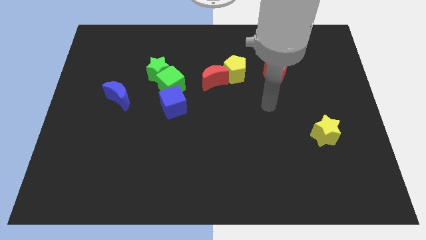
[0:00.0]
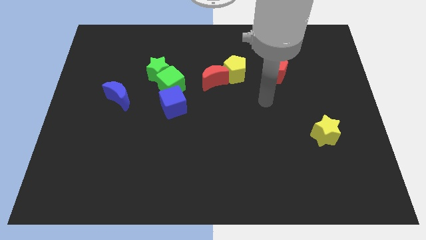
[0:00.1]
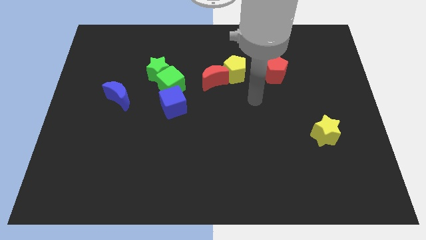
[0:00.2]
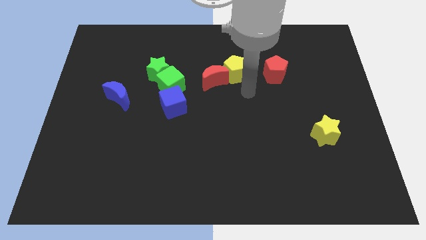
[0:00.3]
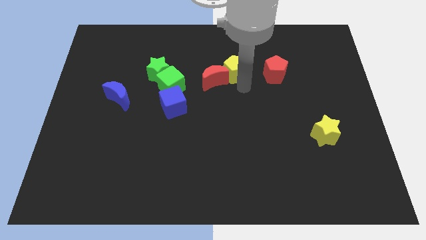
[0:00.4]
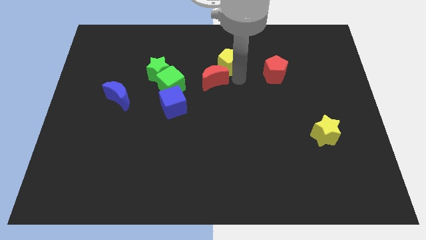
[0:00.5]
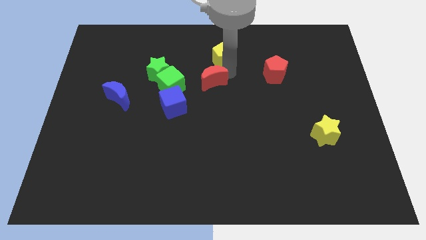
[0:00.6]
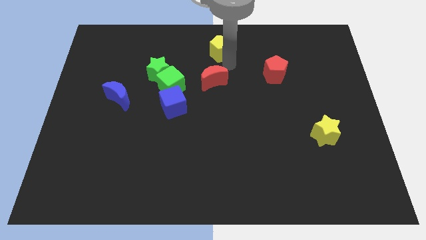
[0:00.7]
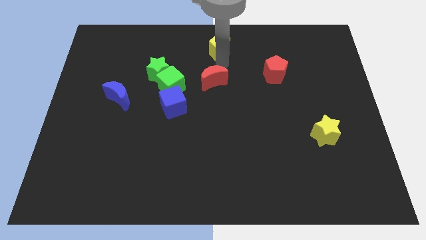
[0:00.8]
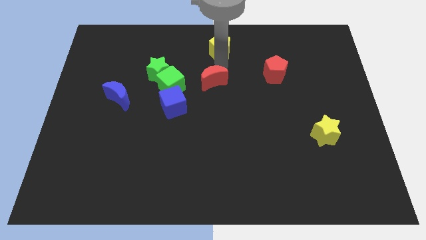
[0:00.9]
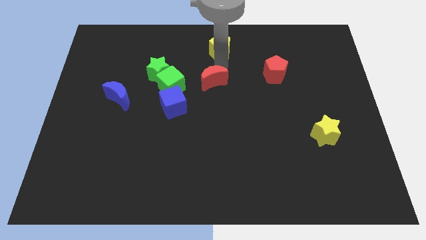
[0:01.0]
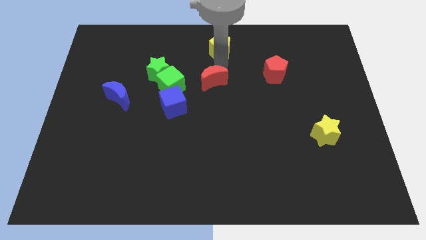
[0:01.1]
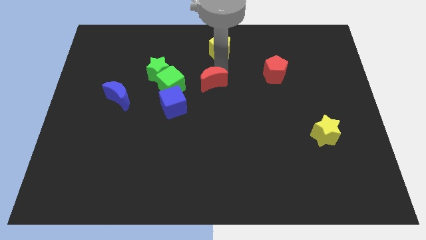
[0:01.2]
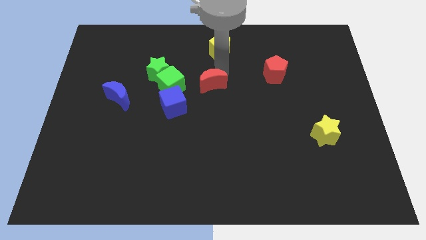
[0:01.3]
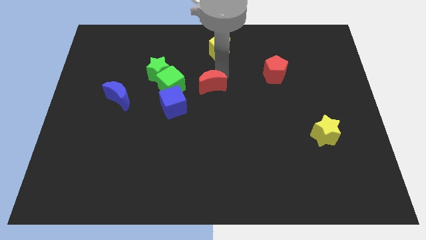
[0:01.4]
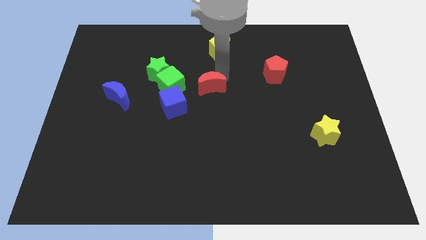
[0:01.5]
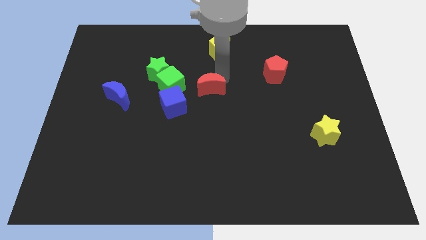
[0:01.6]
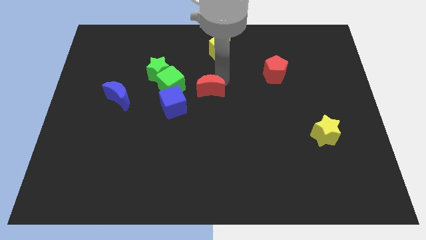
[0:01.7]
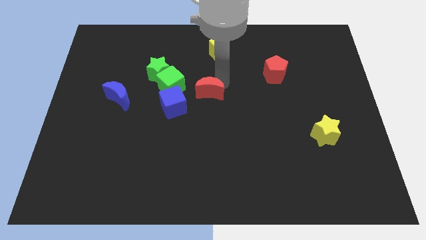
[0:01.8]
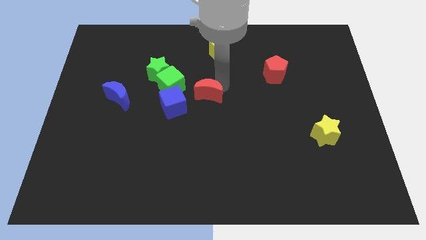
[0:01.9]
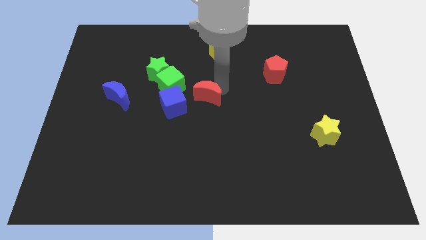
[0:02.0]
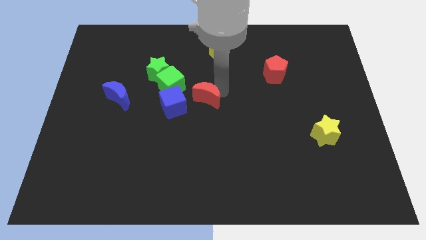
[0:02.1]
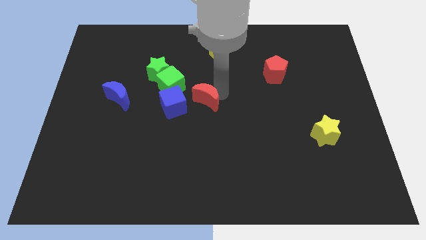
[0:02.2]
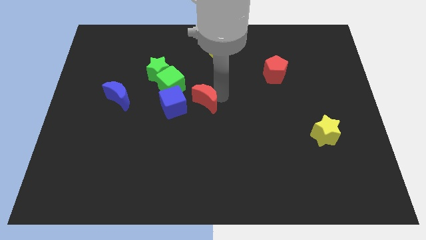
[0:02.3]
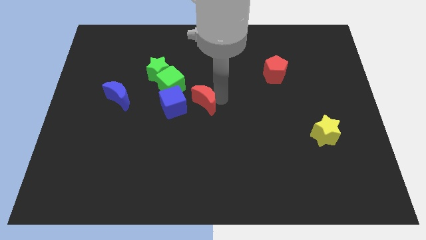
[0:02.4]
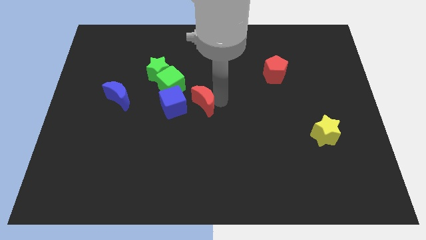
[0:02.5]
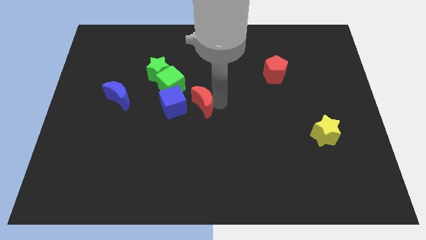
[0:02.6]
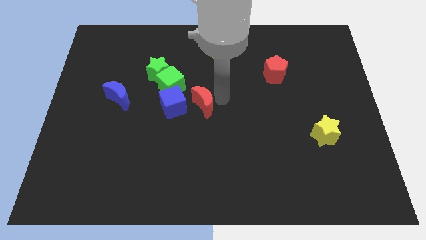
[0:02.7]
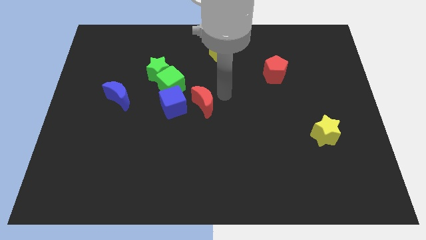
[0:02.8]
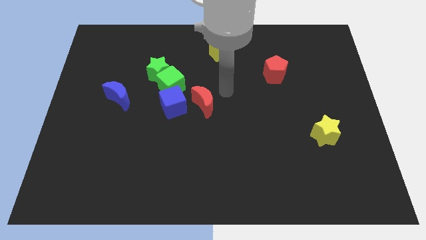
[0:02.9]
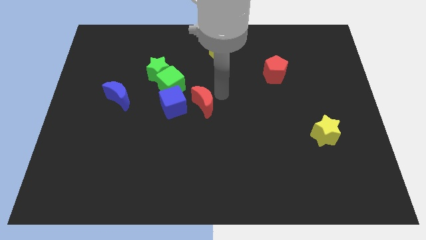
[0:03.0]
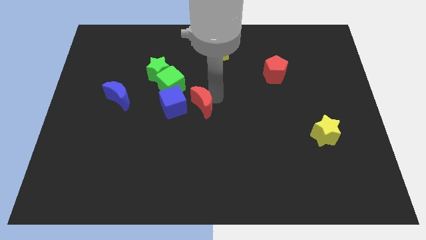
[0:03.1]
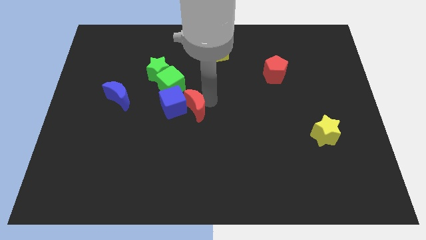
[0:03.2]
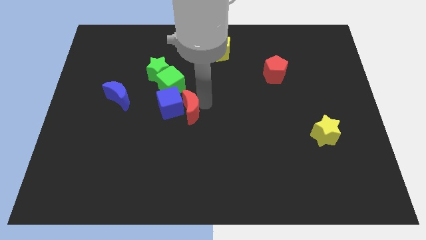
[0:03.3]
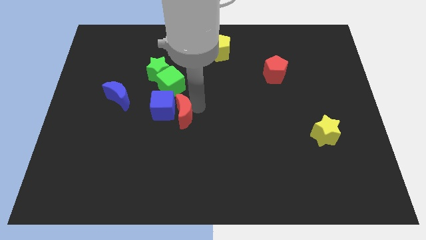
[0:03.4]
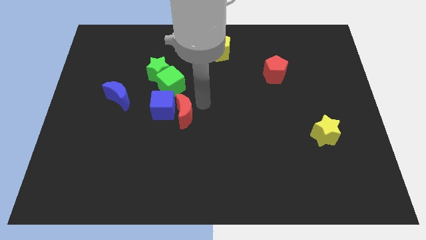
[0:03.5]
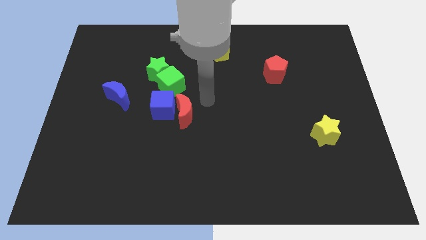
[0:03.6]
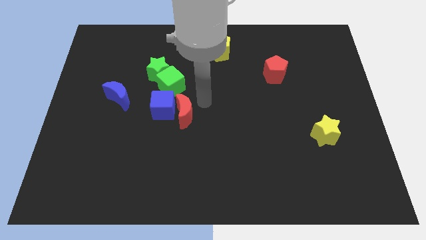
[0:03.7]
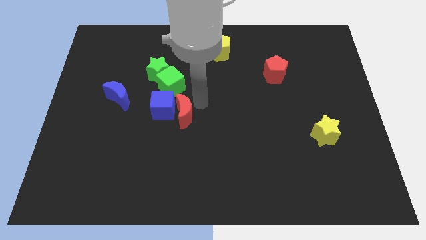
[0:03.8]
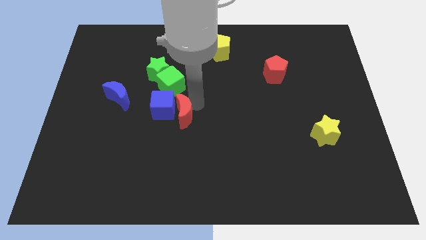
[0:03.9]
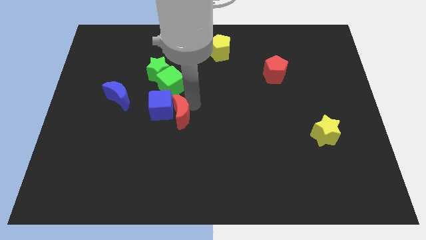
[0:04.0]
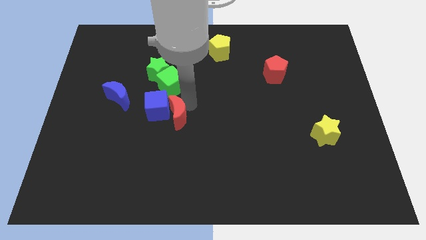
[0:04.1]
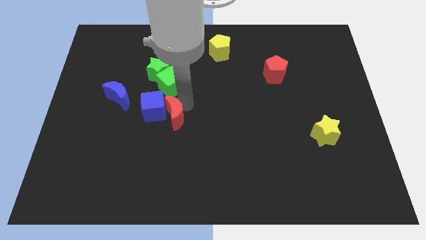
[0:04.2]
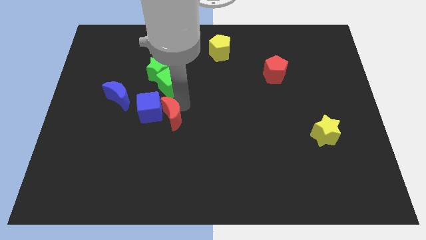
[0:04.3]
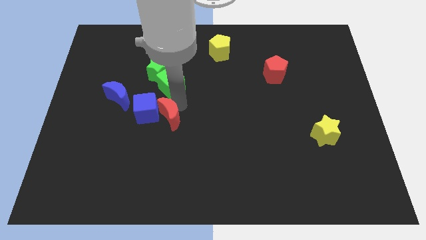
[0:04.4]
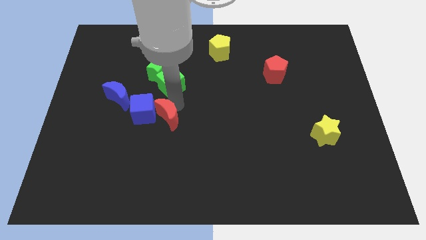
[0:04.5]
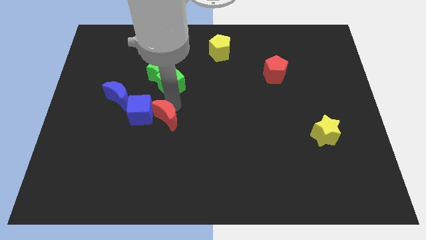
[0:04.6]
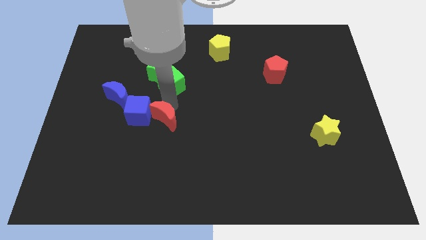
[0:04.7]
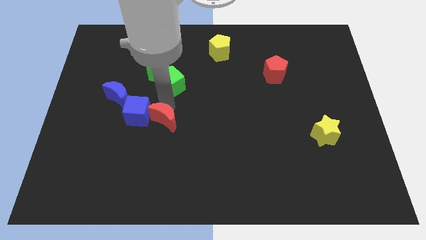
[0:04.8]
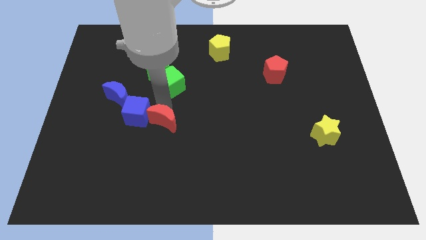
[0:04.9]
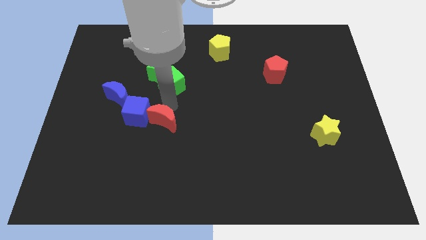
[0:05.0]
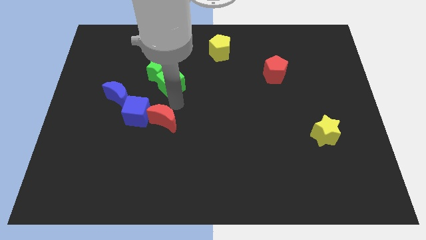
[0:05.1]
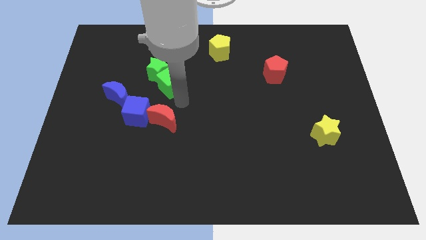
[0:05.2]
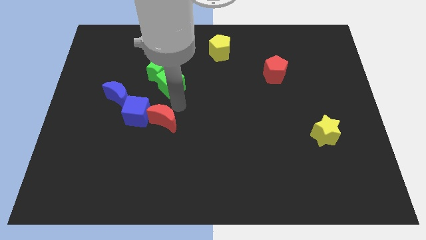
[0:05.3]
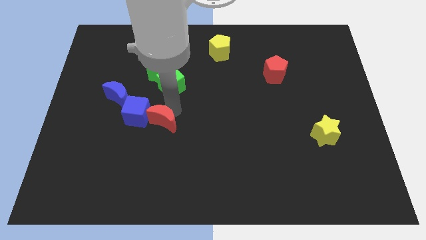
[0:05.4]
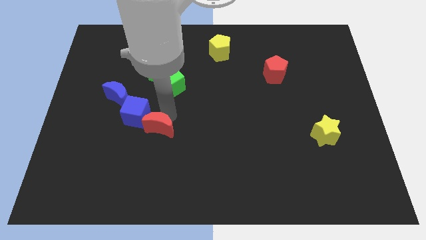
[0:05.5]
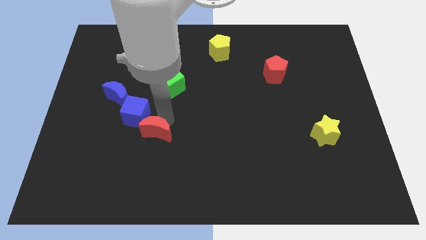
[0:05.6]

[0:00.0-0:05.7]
push the red moon diagonally down and to the left

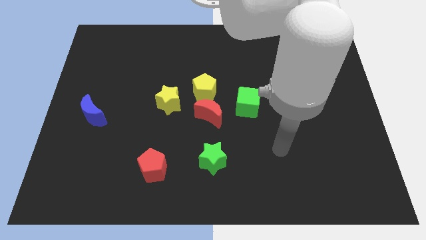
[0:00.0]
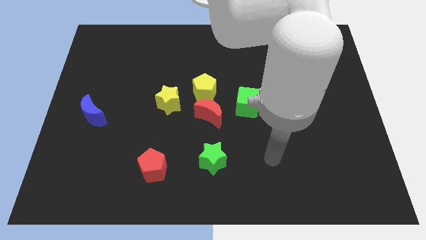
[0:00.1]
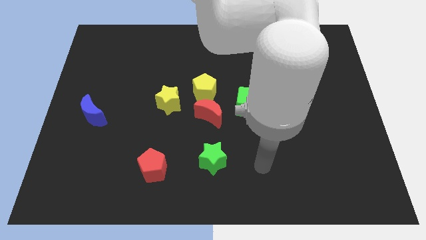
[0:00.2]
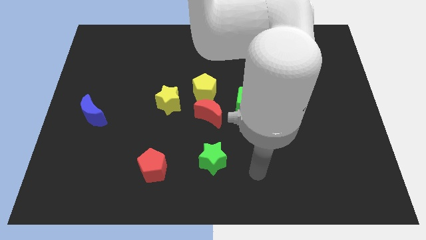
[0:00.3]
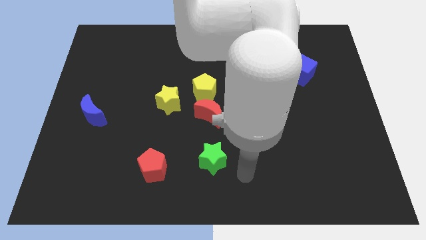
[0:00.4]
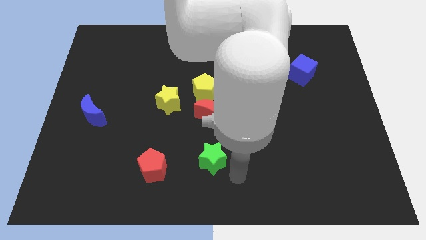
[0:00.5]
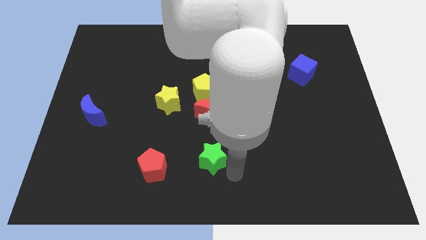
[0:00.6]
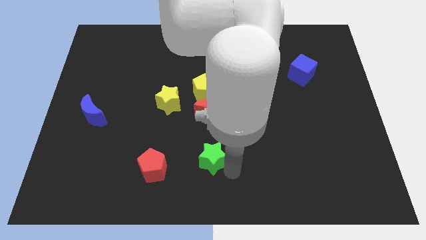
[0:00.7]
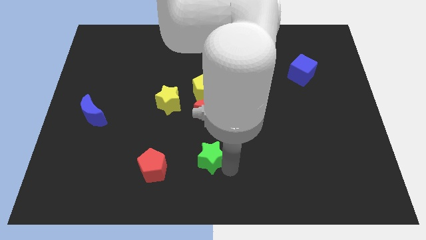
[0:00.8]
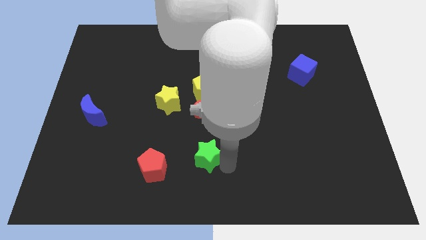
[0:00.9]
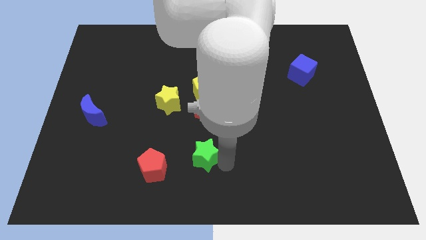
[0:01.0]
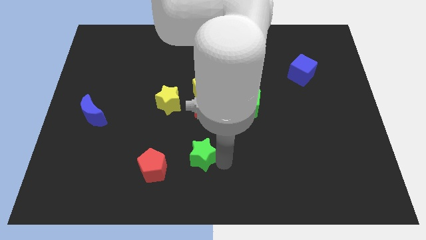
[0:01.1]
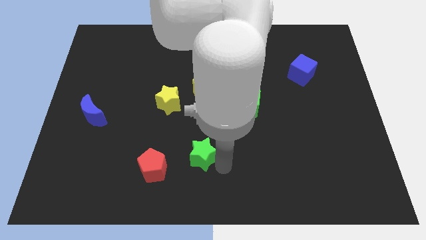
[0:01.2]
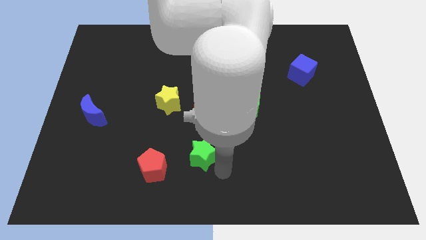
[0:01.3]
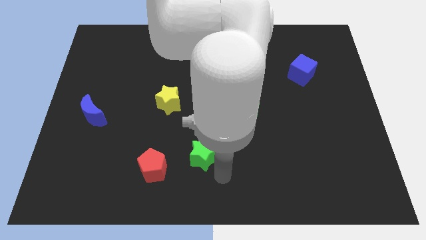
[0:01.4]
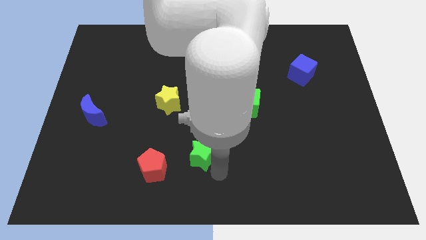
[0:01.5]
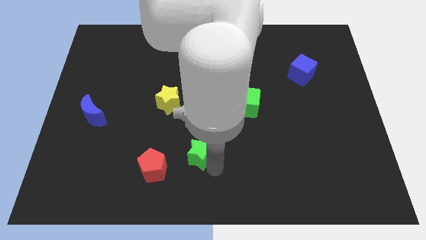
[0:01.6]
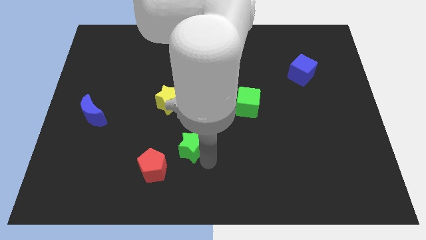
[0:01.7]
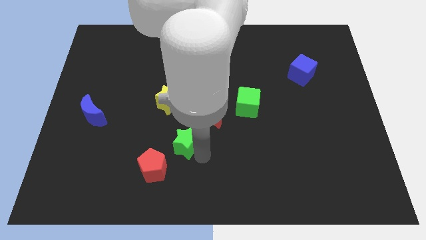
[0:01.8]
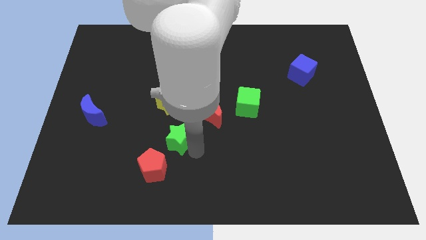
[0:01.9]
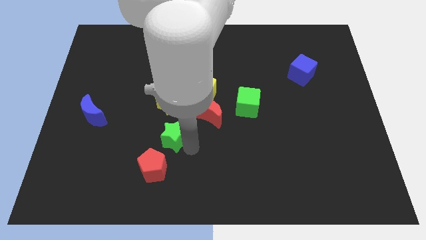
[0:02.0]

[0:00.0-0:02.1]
push the green star left somewhat

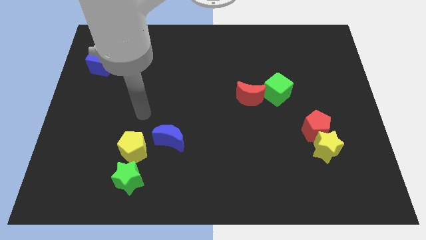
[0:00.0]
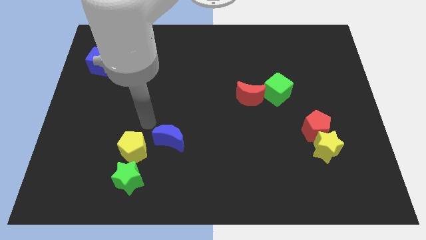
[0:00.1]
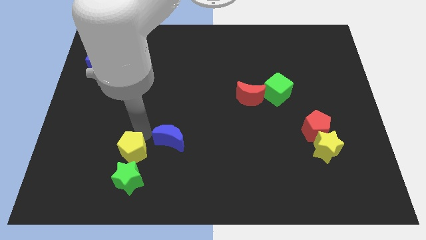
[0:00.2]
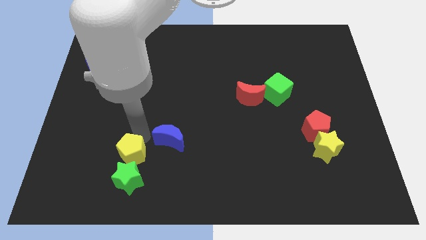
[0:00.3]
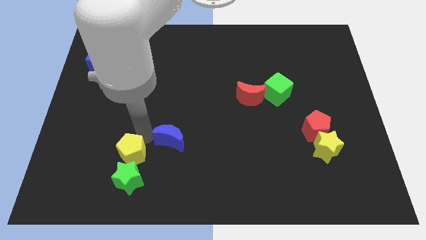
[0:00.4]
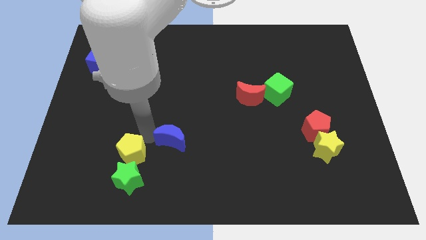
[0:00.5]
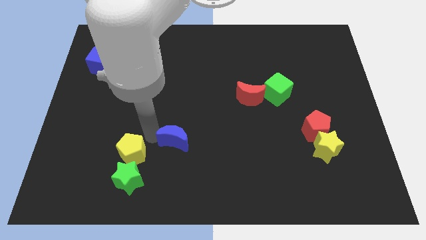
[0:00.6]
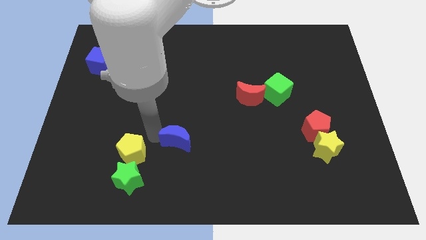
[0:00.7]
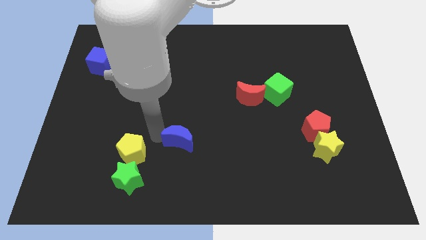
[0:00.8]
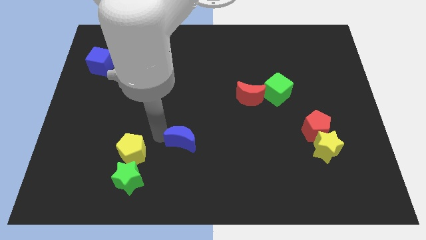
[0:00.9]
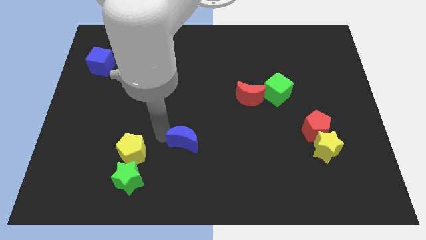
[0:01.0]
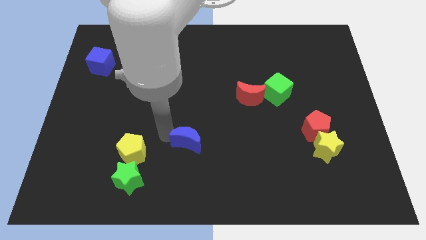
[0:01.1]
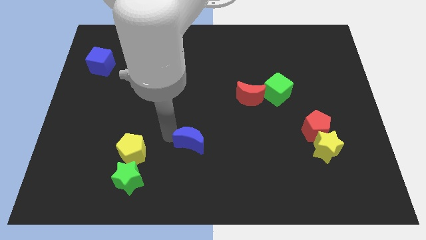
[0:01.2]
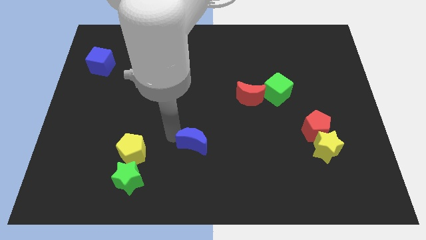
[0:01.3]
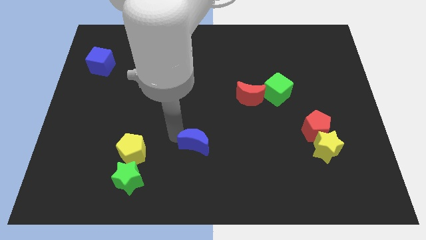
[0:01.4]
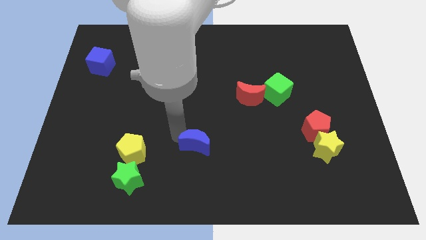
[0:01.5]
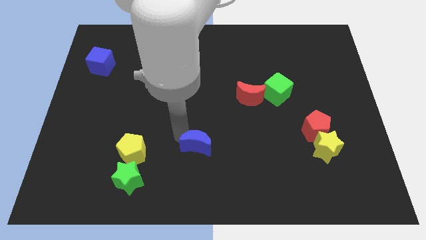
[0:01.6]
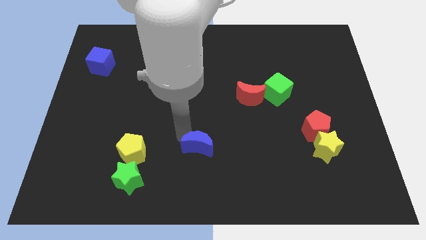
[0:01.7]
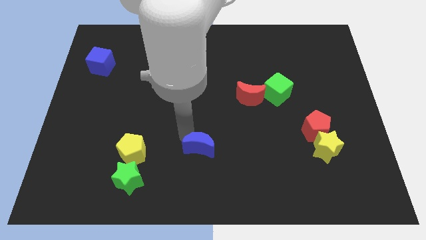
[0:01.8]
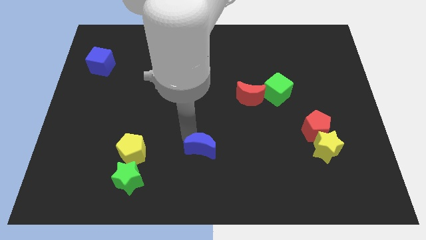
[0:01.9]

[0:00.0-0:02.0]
slide the blue moon to the right a little
